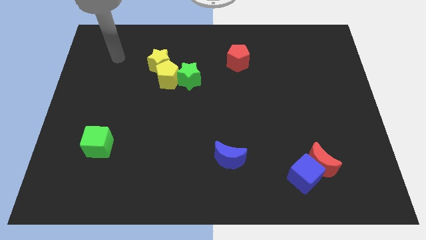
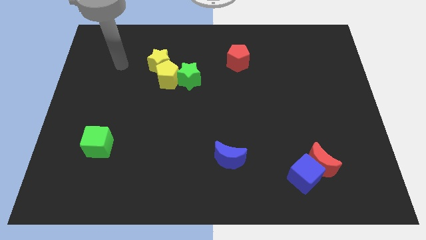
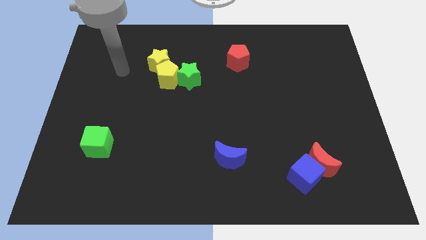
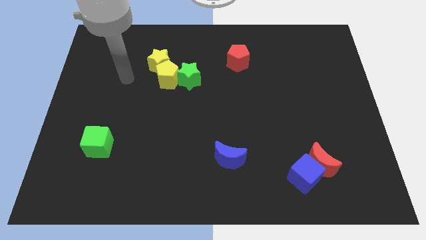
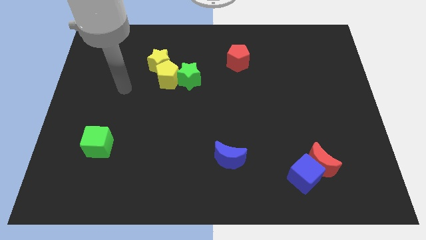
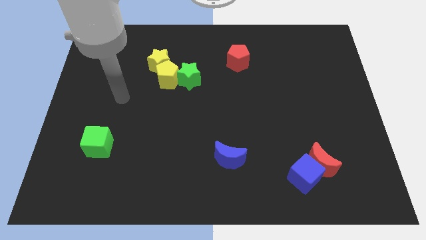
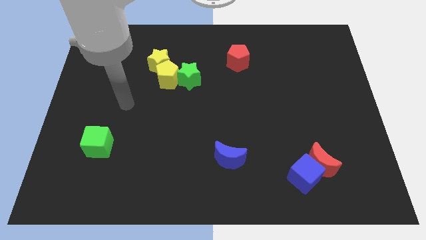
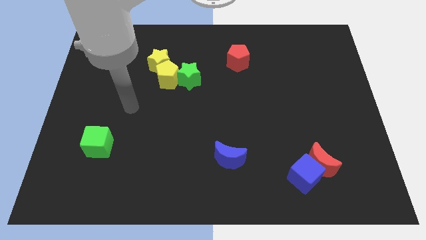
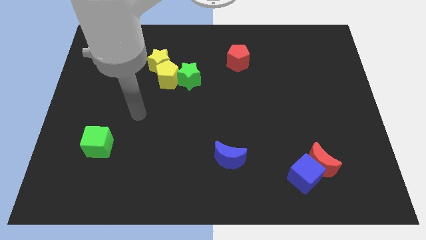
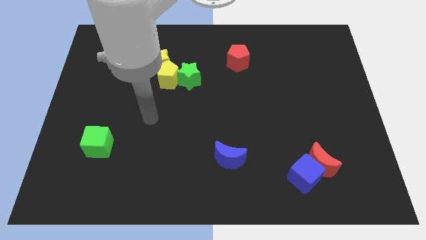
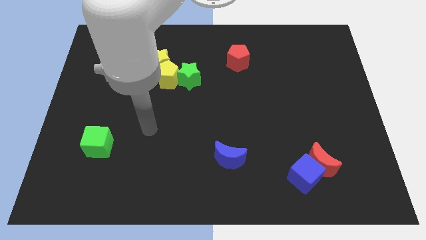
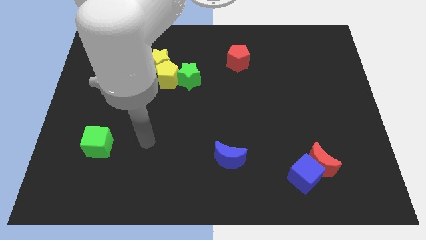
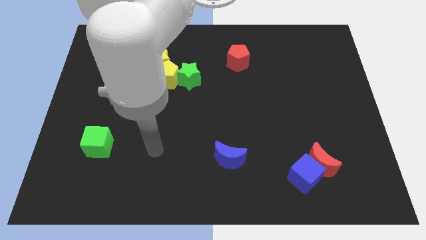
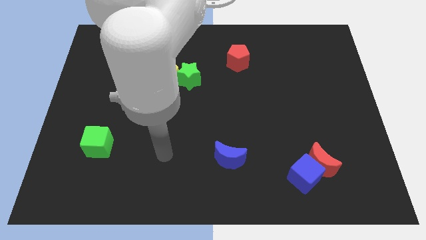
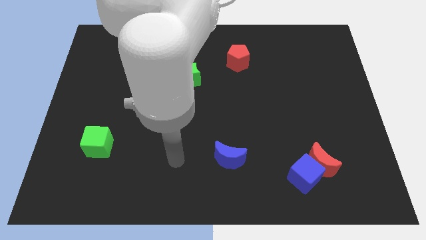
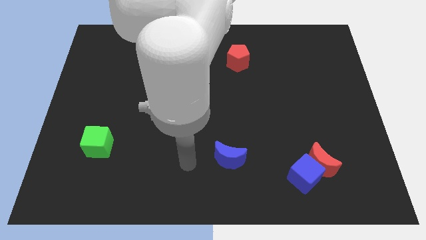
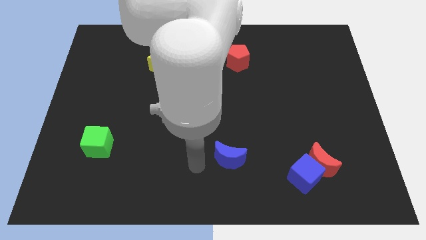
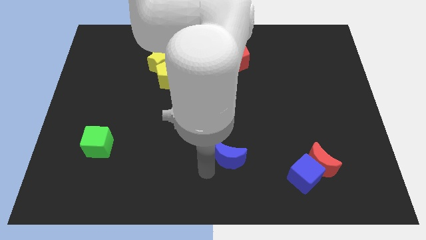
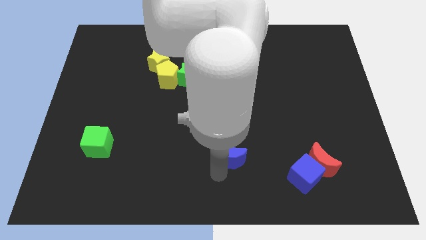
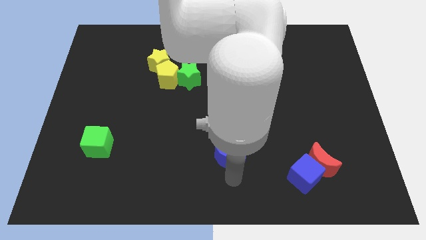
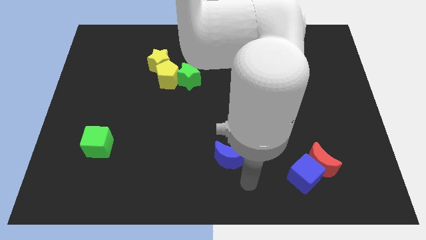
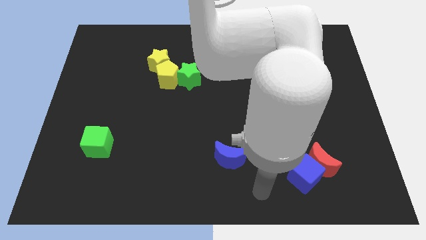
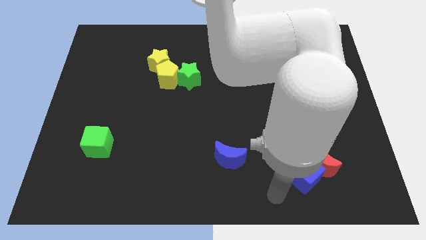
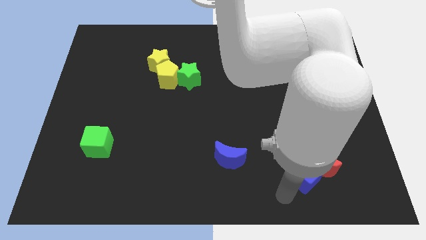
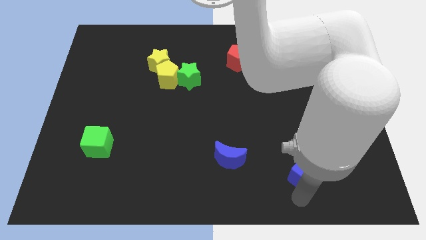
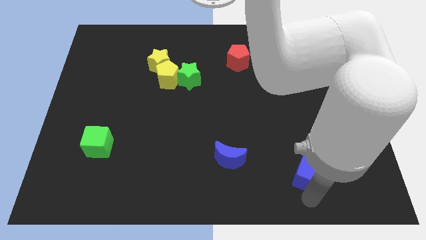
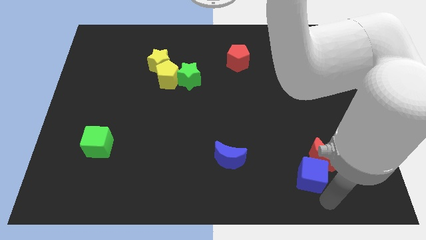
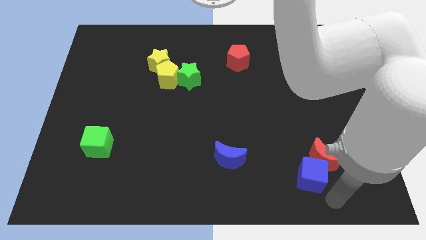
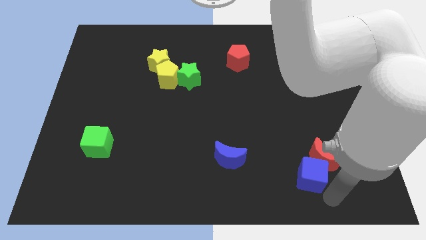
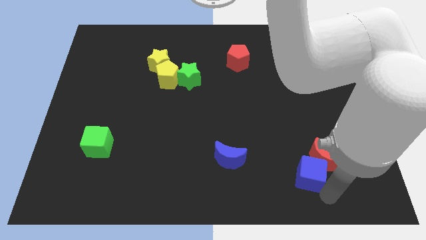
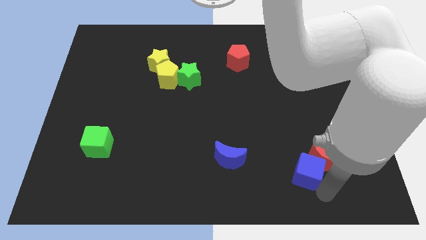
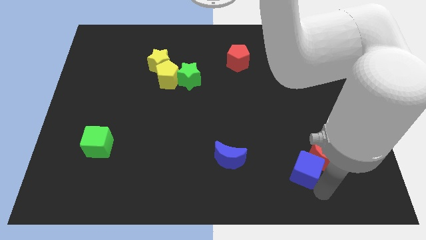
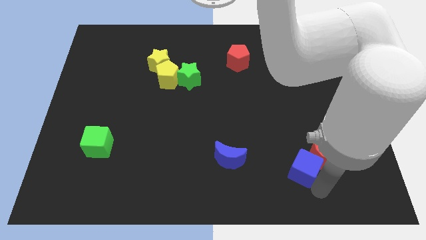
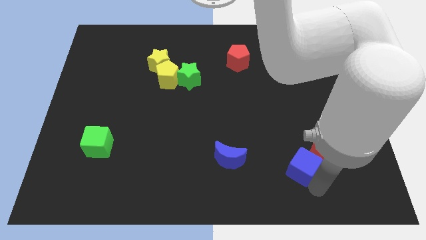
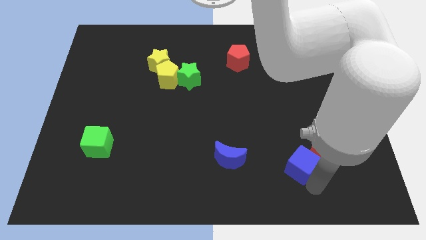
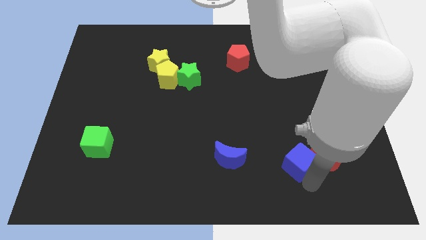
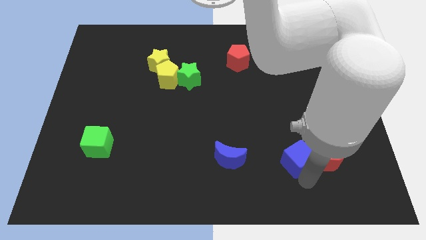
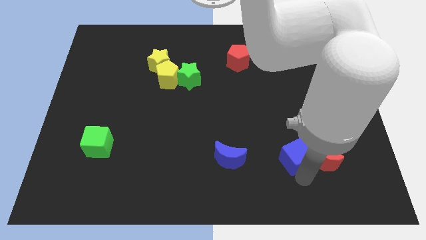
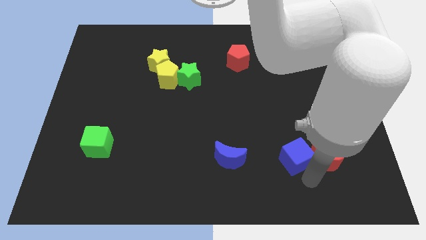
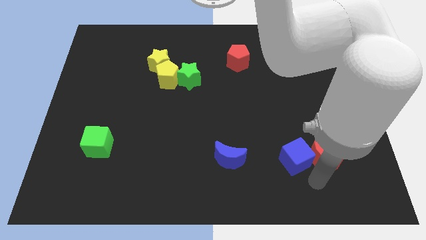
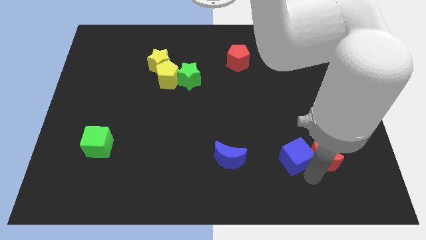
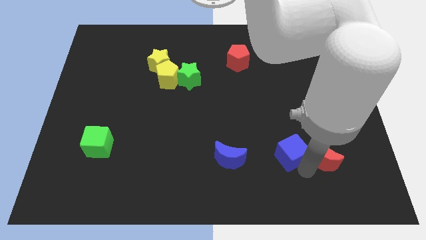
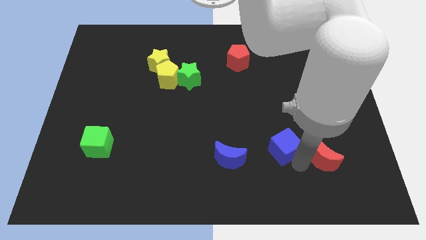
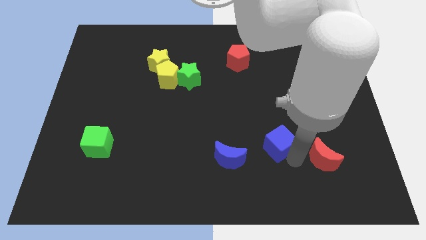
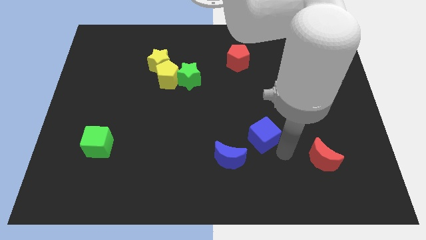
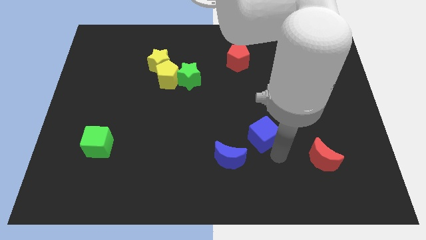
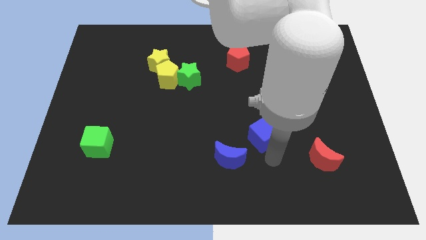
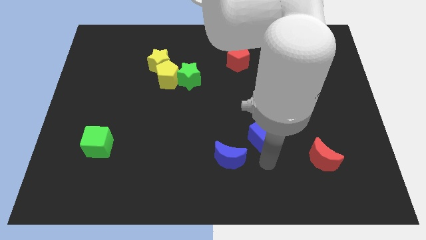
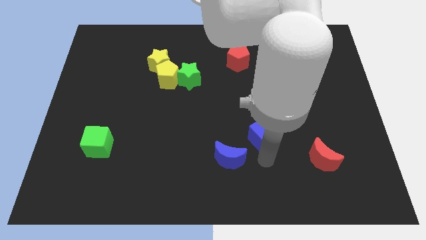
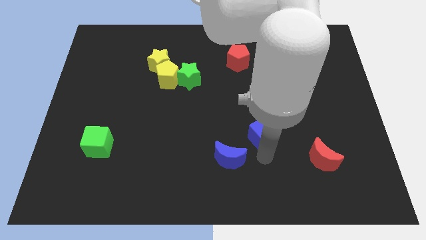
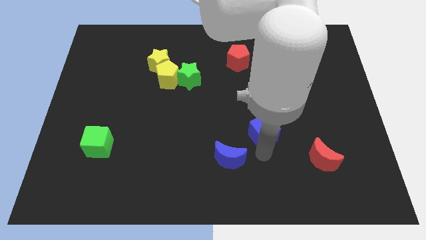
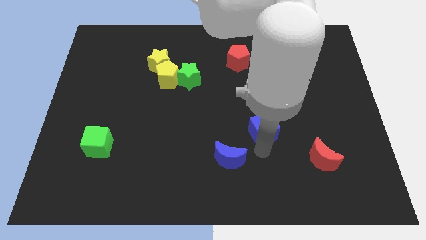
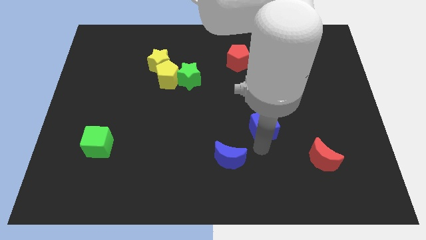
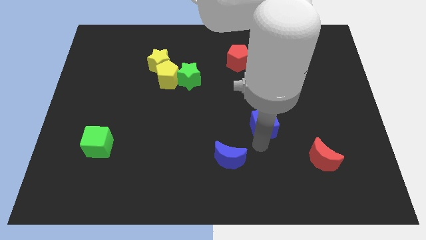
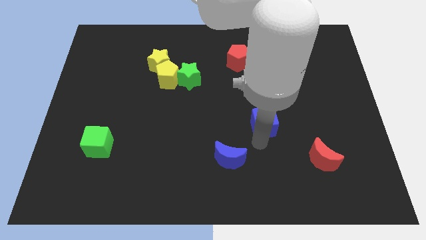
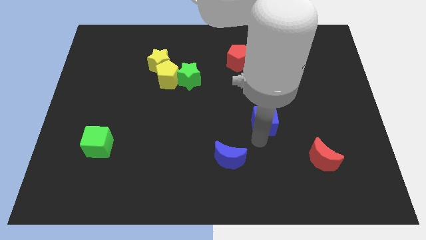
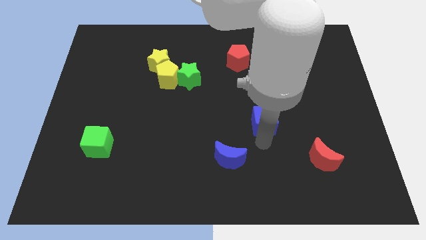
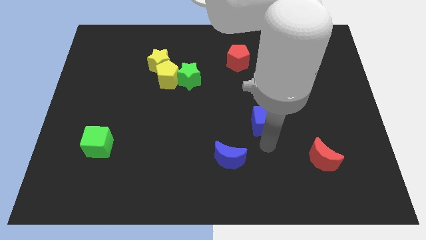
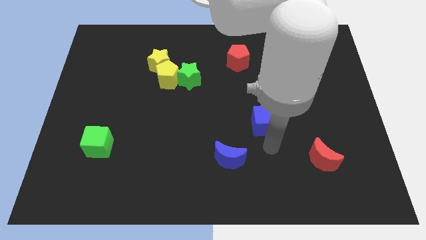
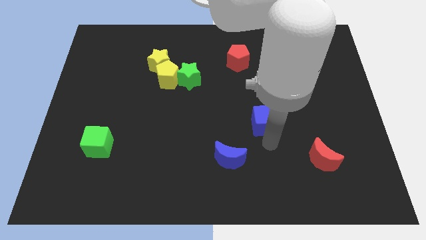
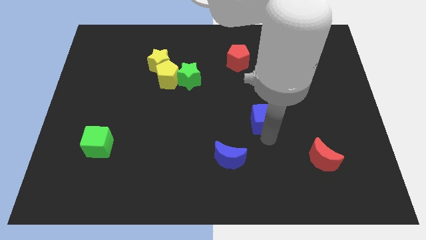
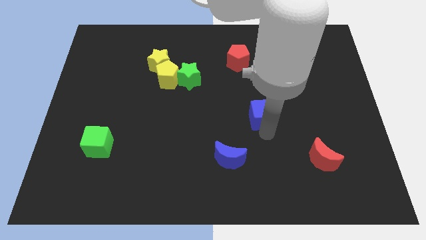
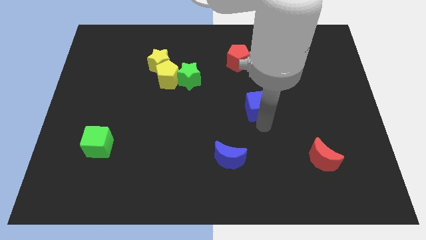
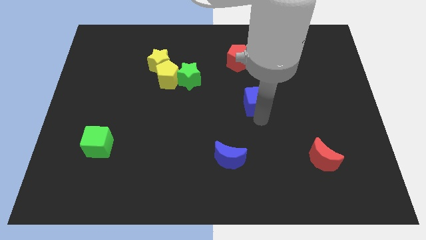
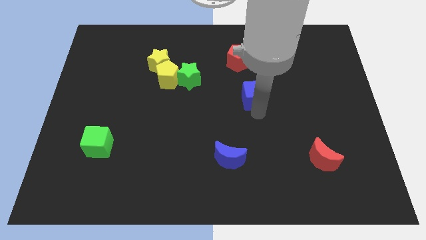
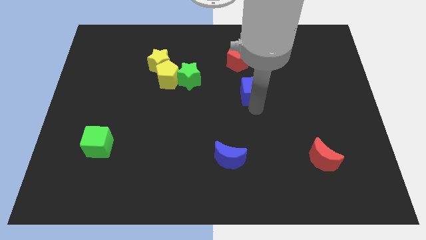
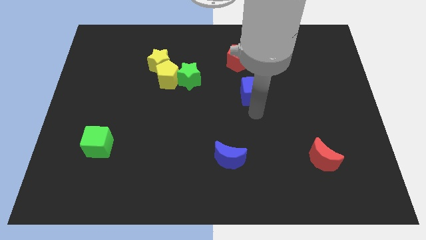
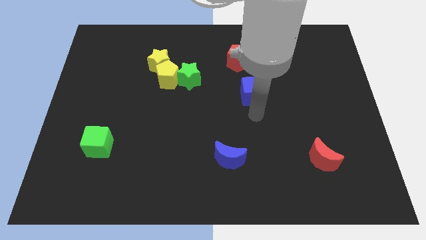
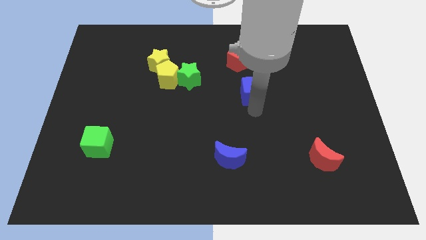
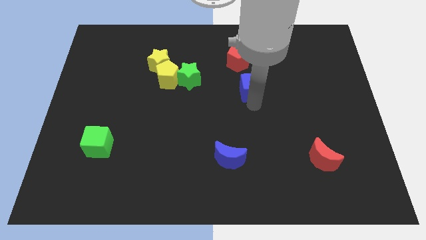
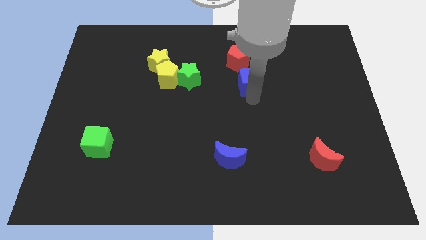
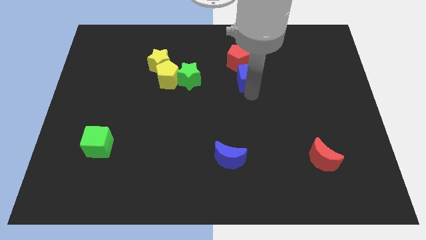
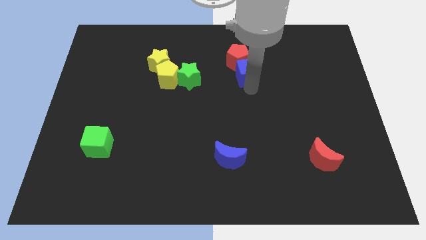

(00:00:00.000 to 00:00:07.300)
push the blue cube close to the red pentagon
